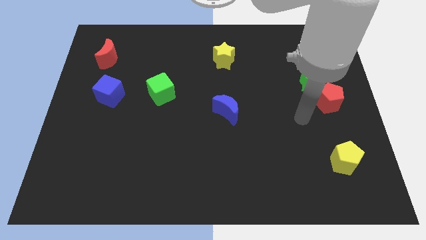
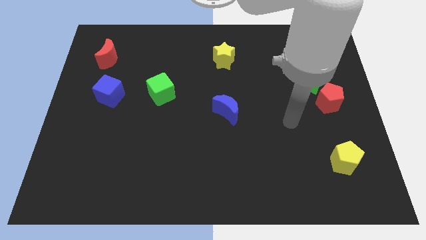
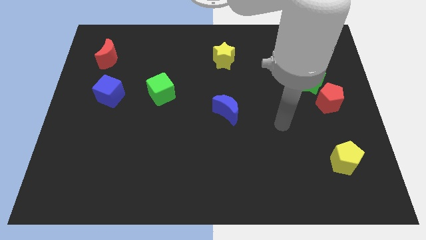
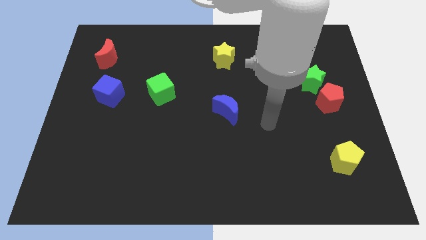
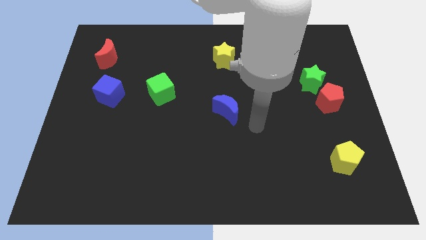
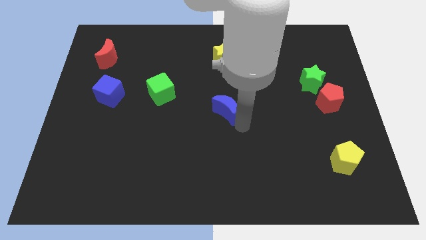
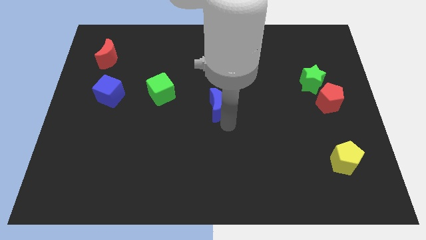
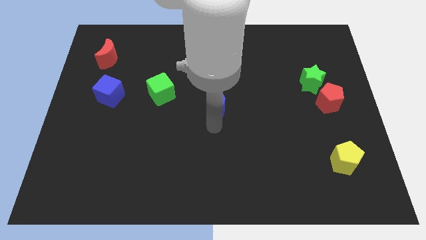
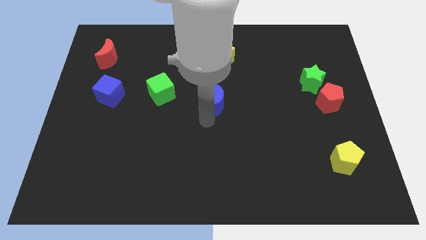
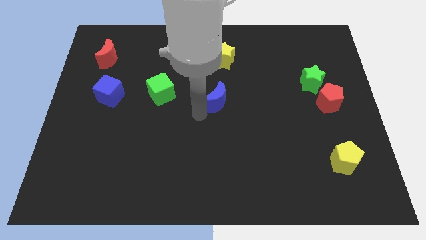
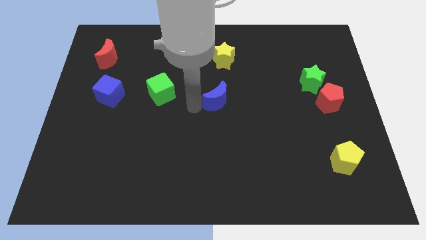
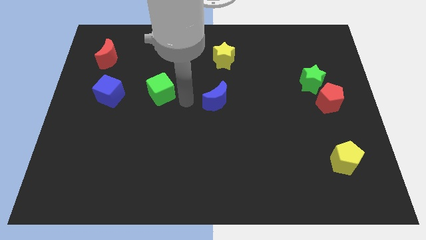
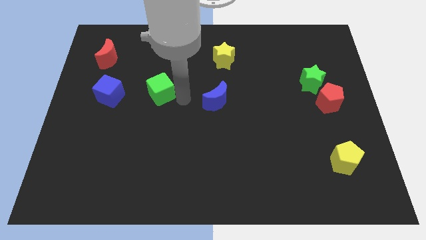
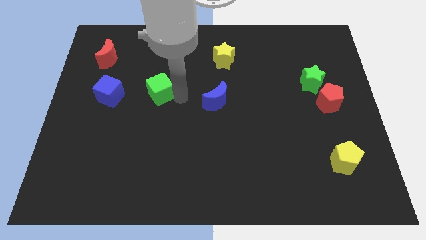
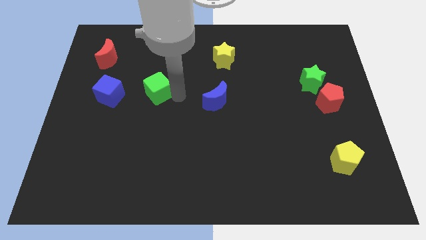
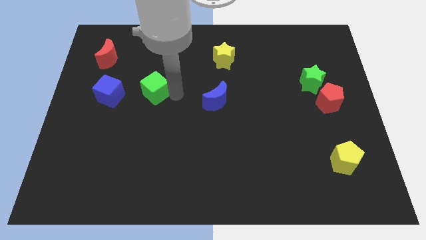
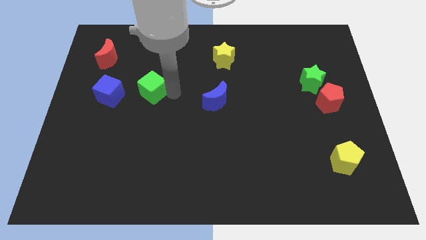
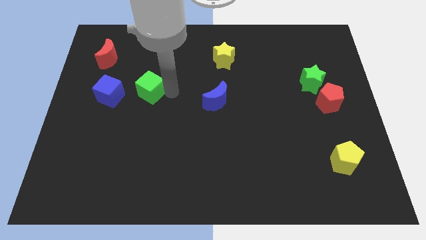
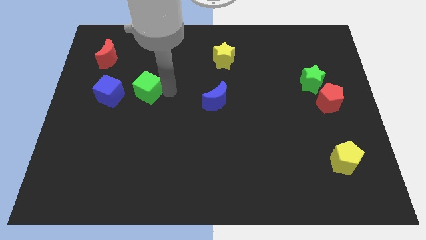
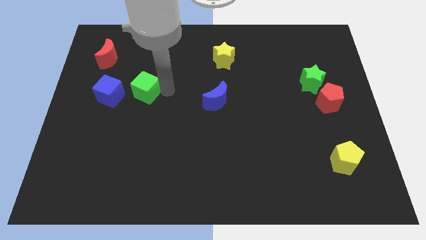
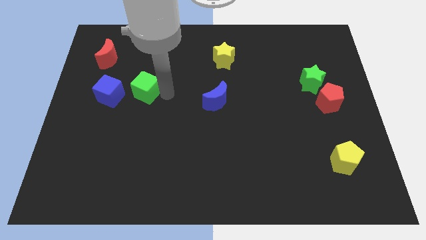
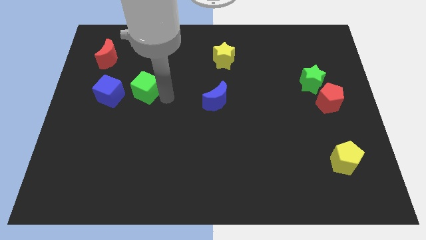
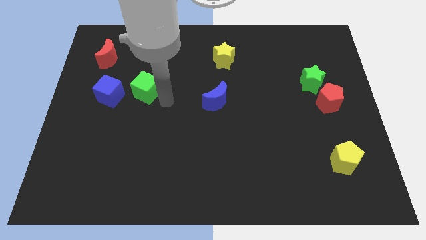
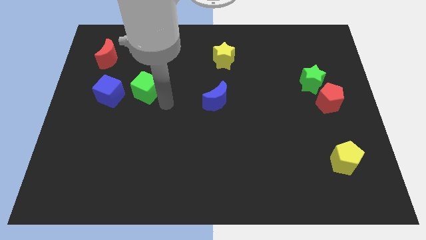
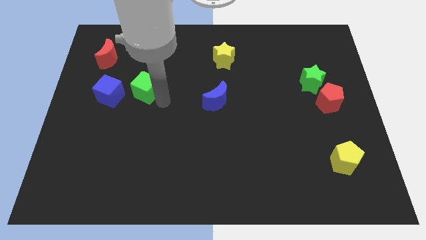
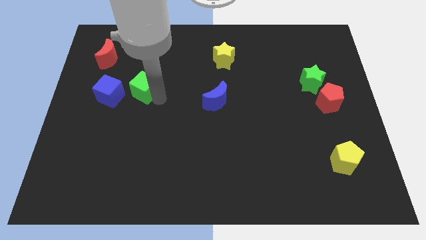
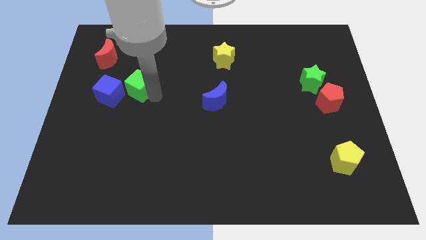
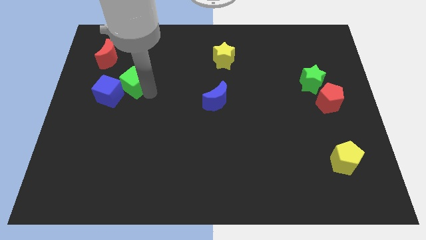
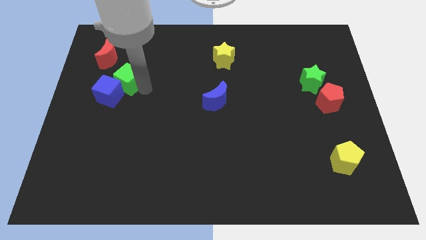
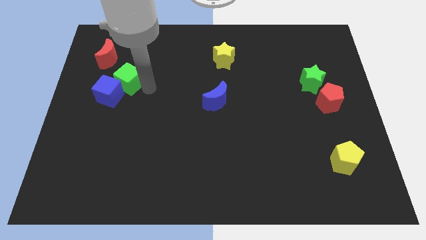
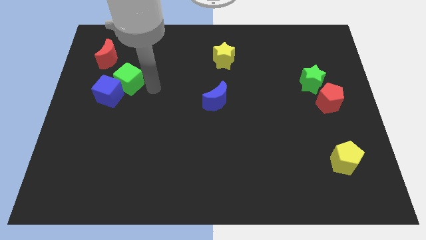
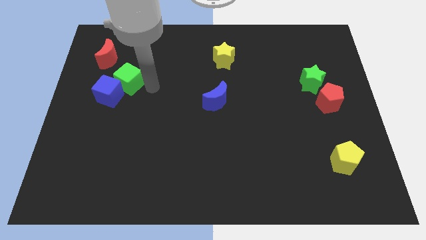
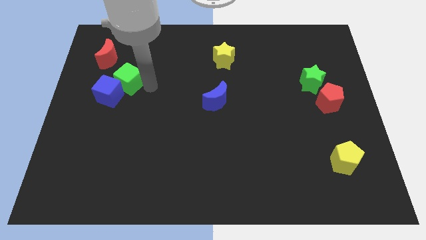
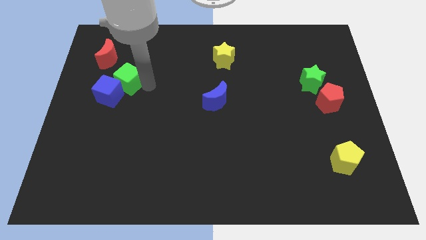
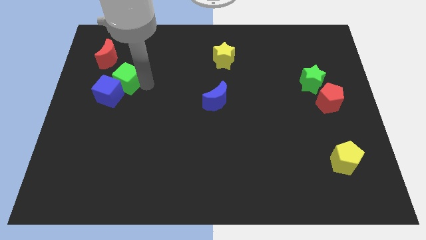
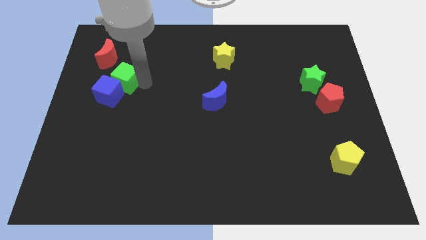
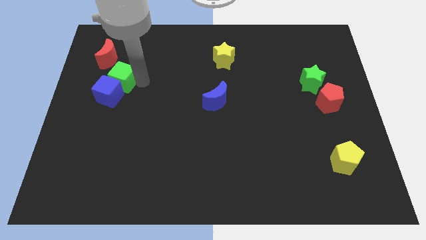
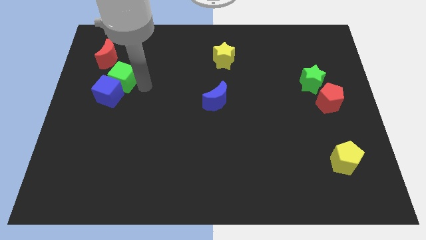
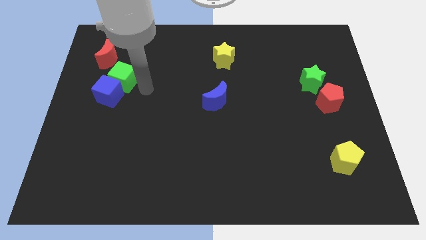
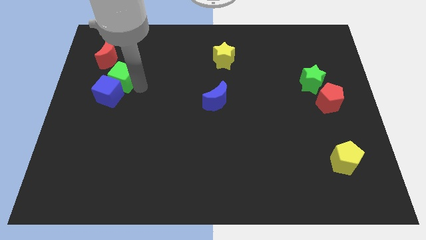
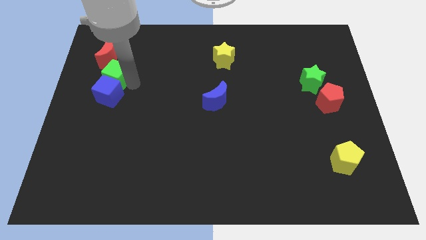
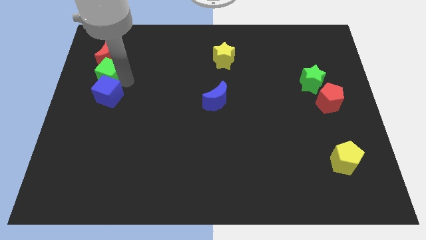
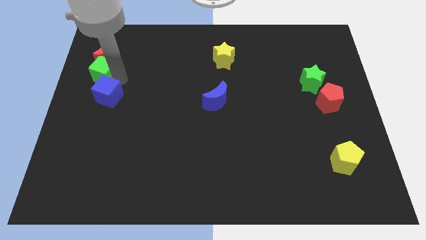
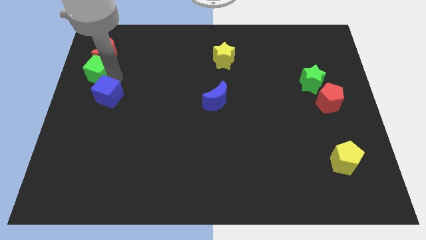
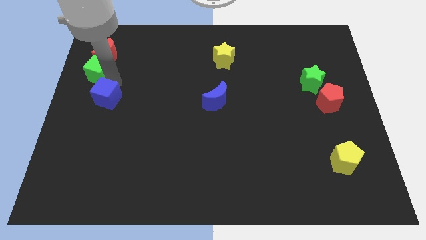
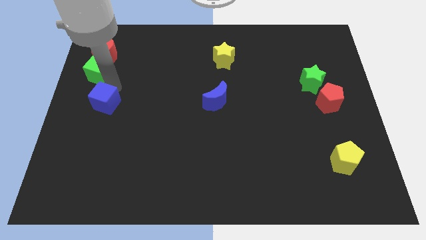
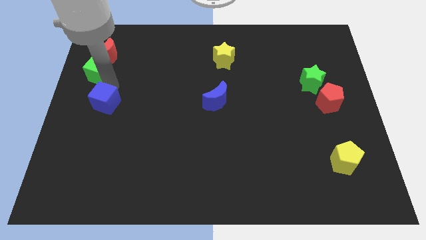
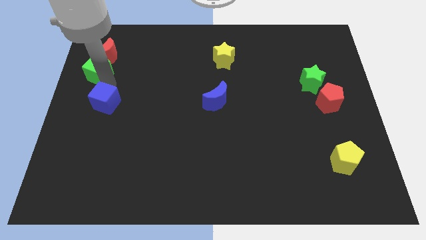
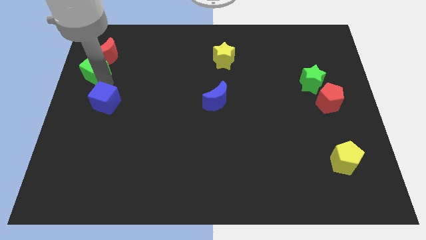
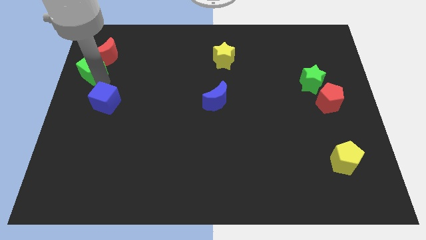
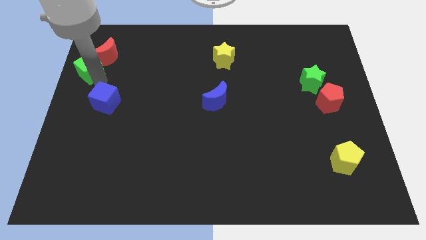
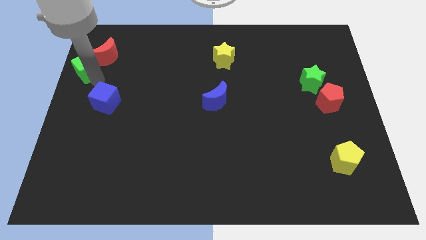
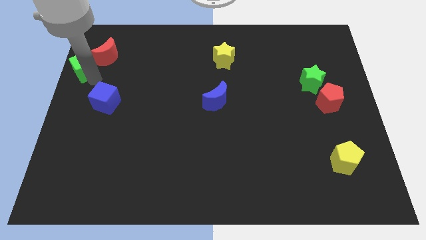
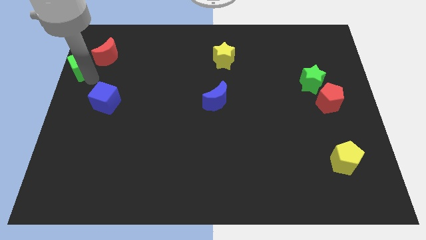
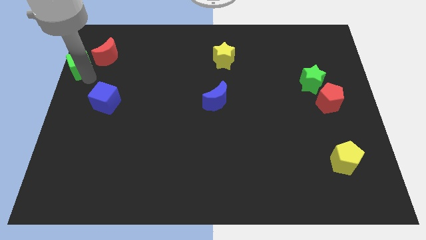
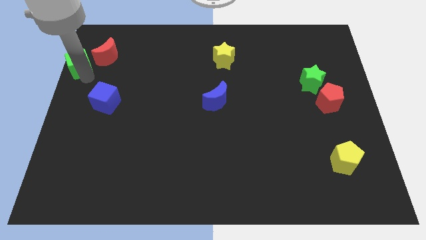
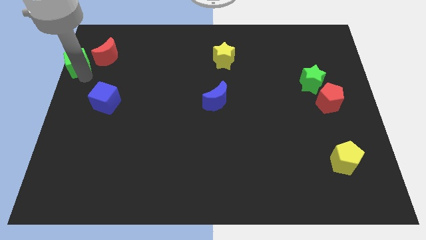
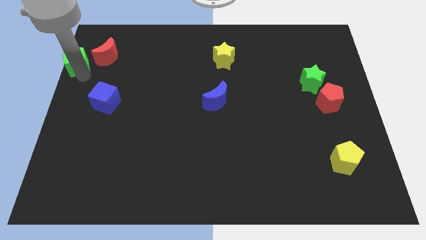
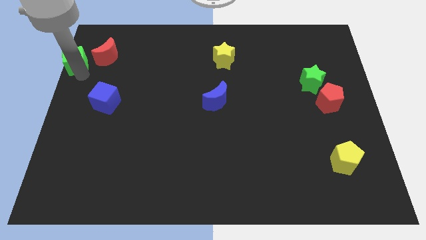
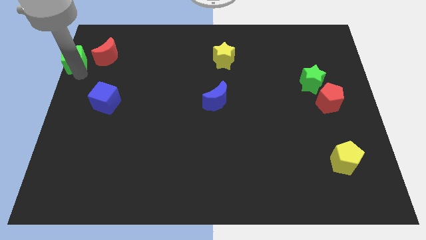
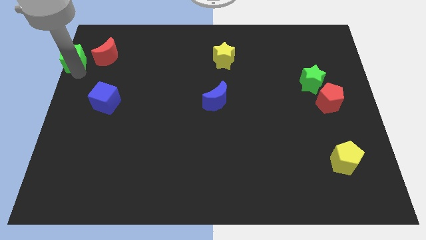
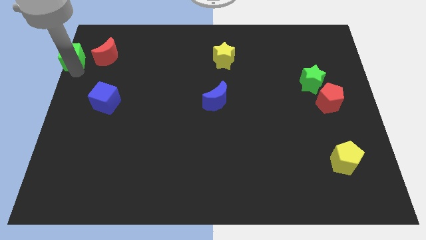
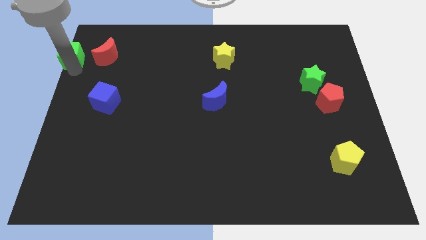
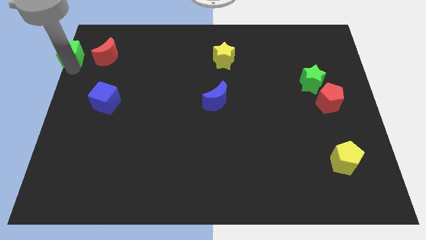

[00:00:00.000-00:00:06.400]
push the green cube to the top left of the board
